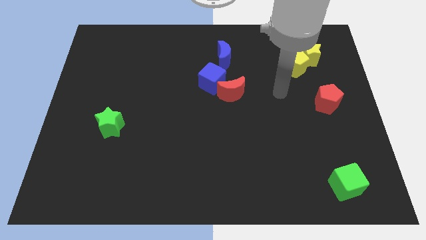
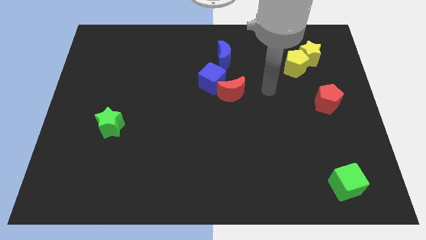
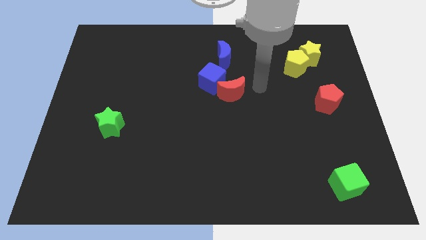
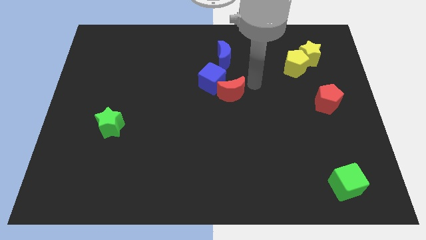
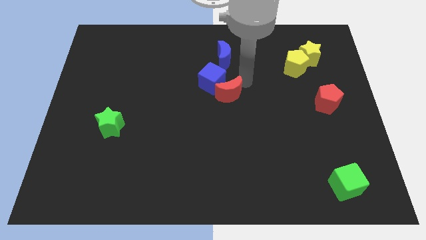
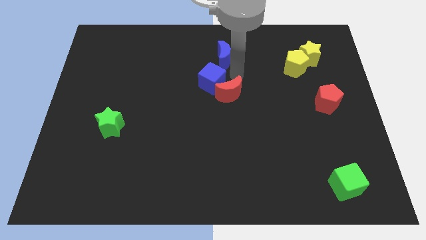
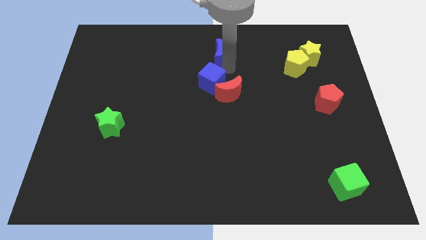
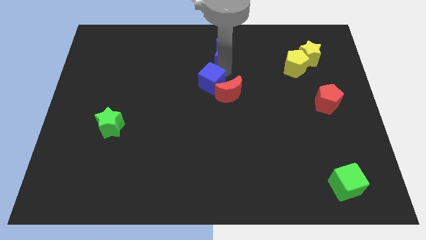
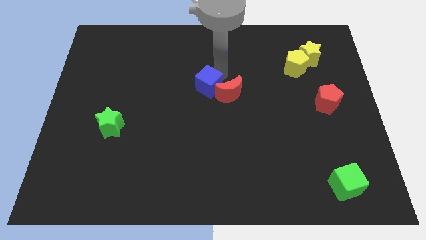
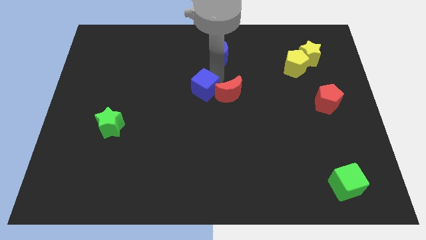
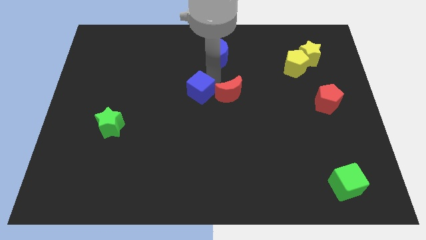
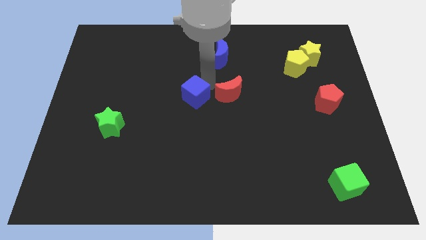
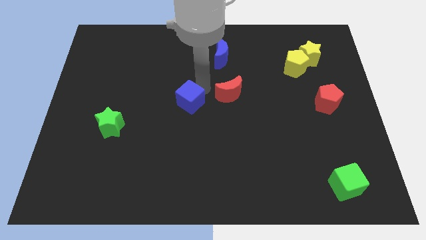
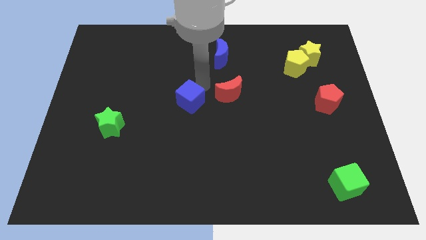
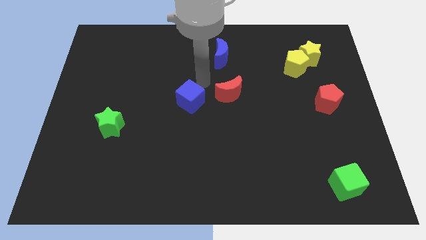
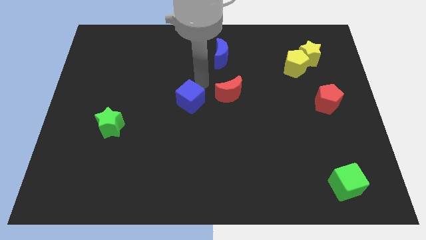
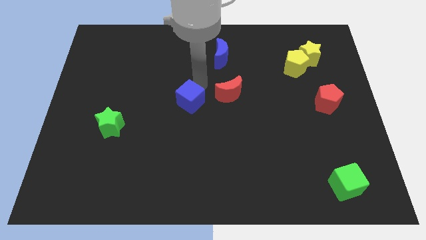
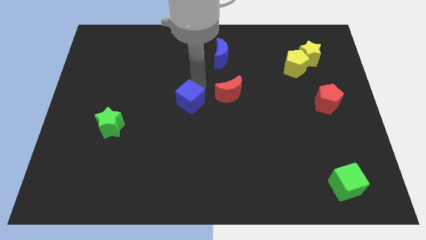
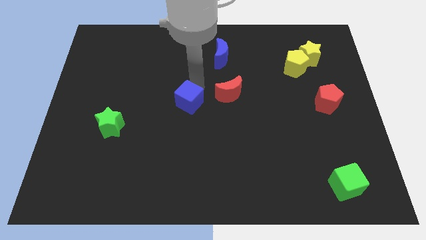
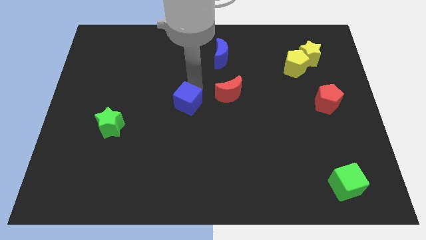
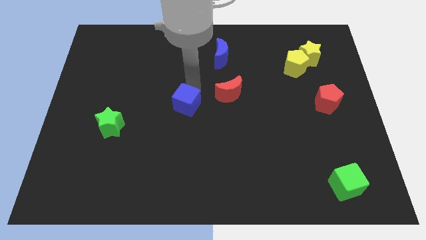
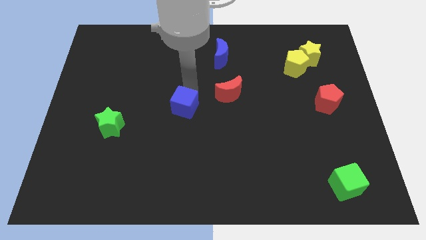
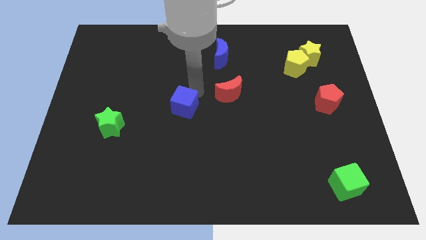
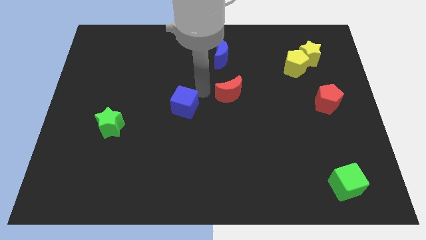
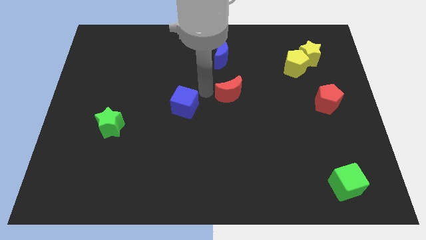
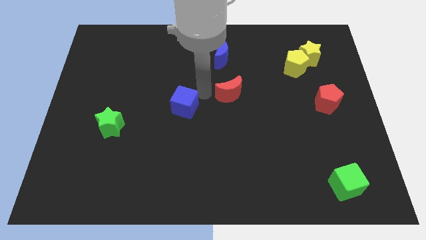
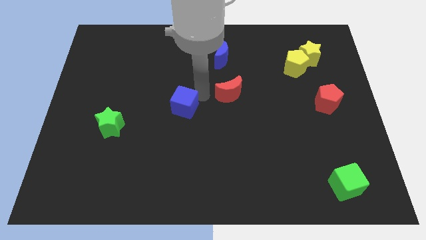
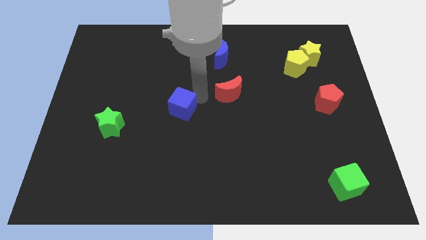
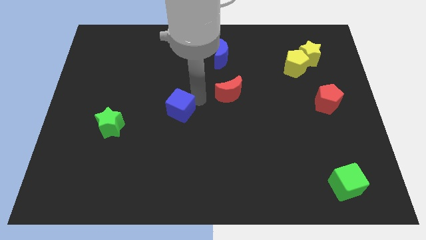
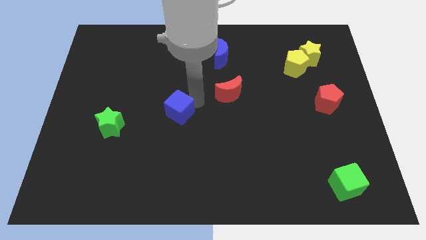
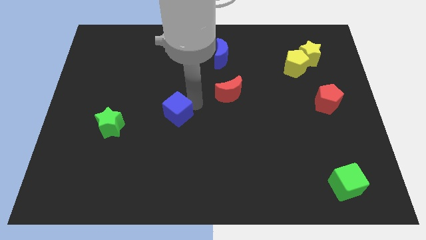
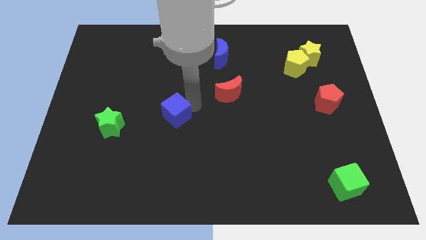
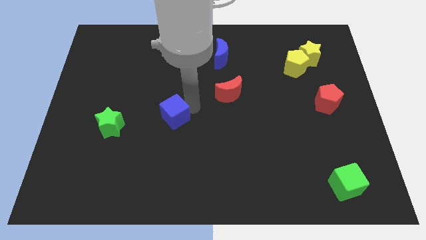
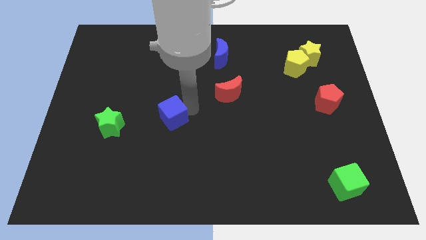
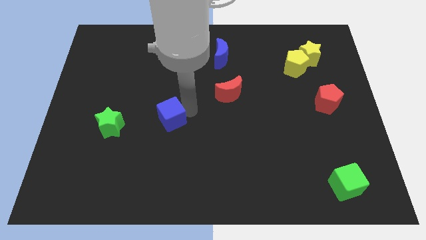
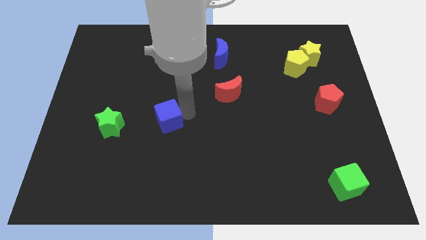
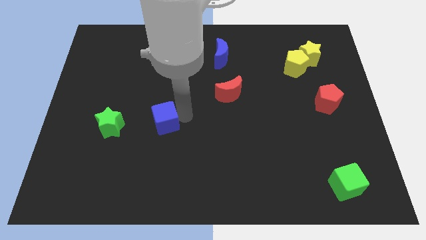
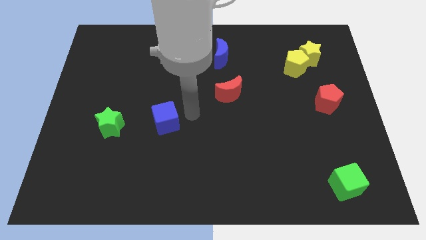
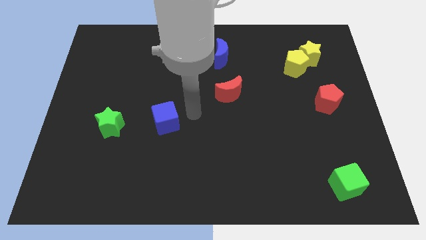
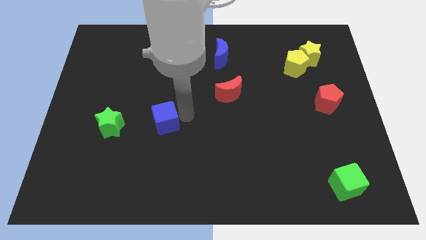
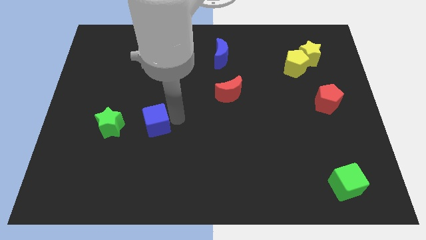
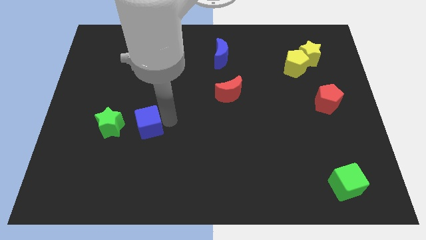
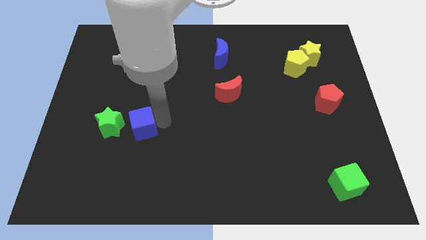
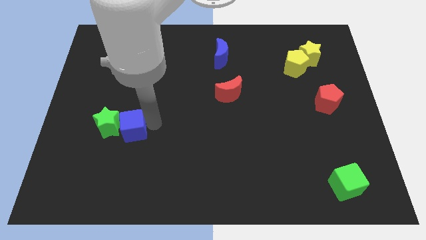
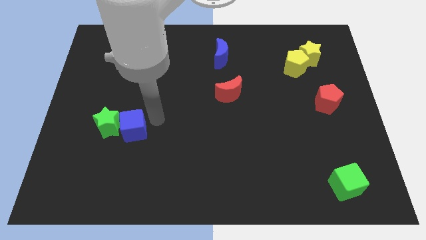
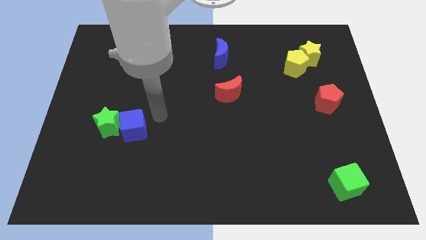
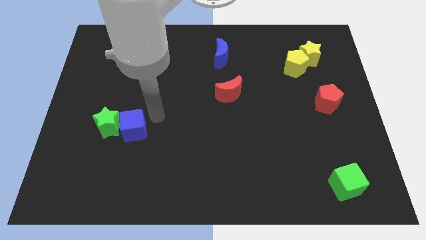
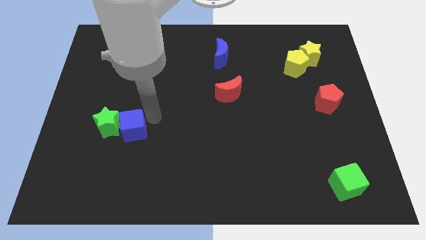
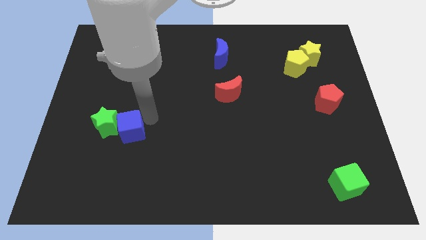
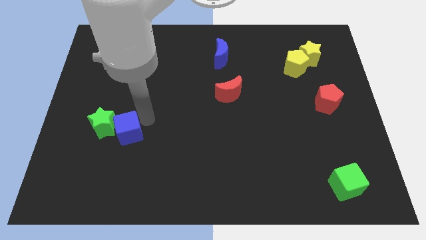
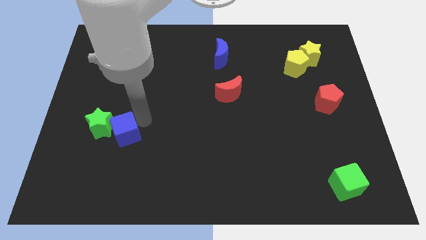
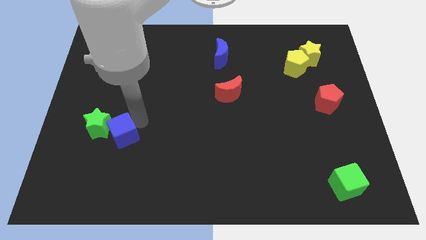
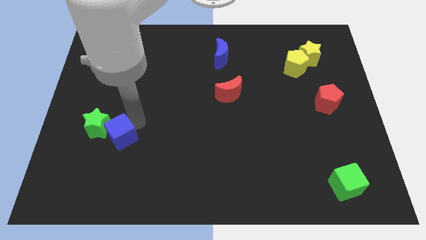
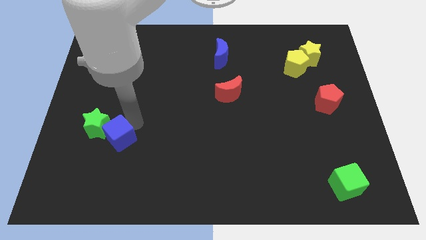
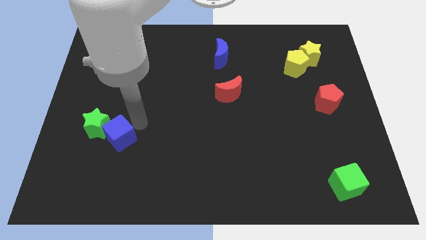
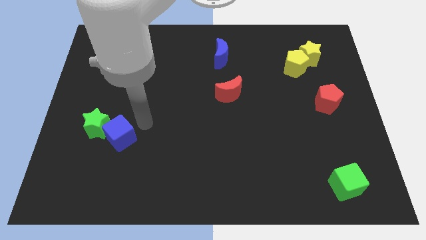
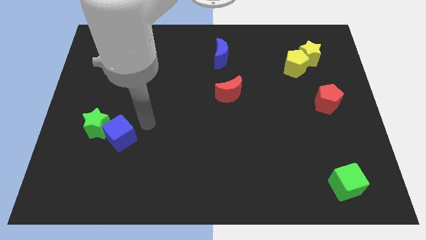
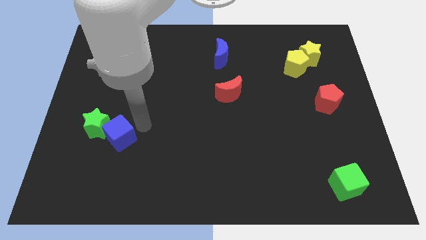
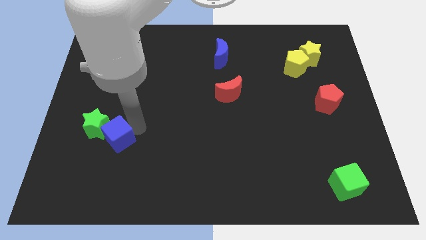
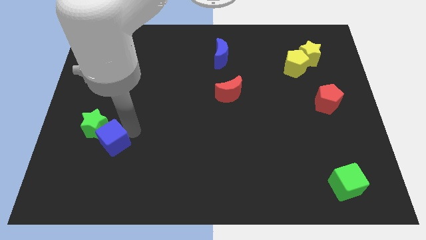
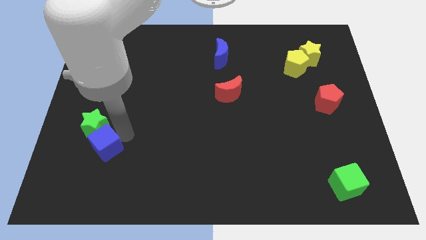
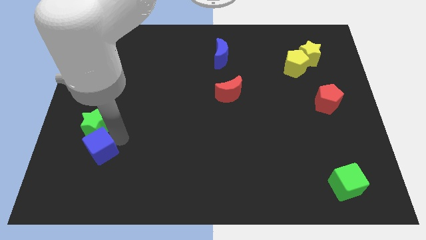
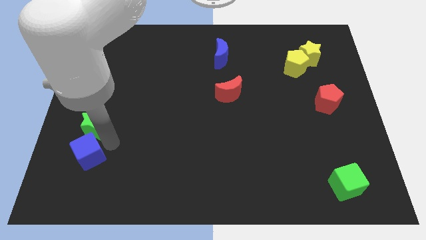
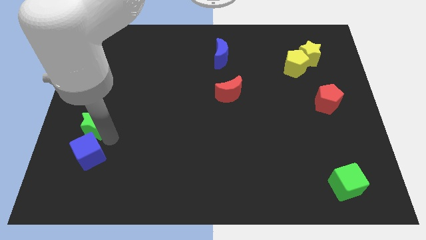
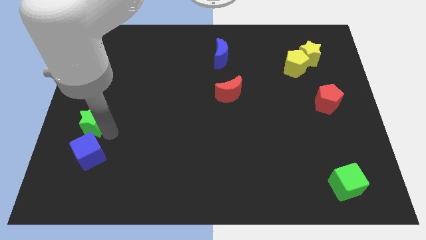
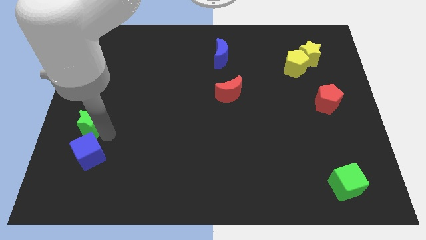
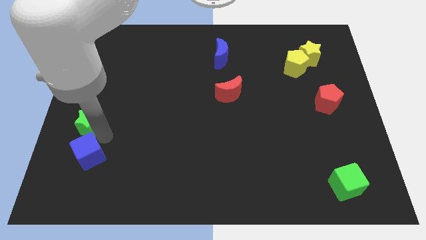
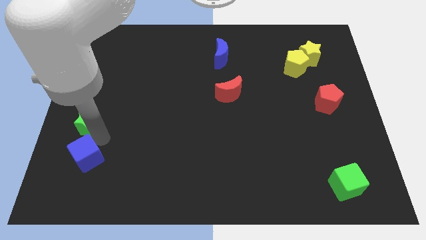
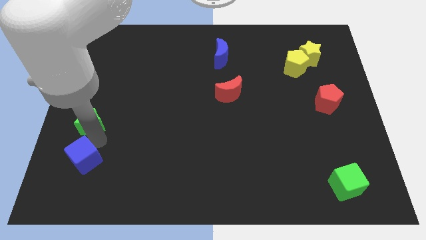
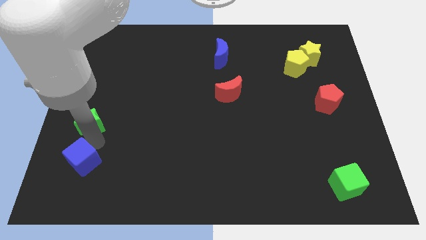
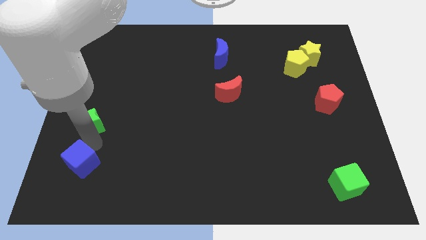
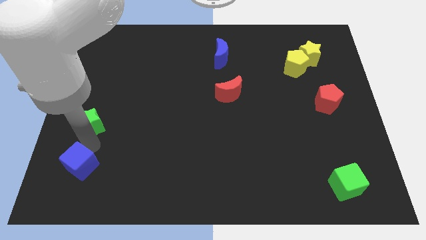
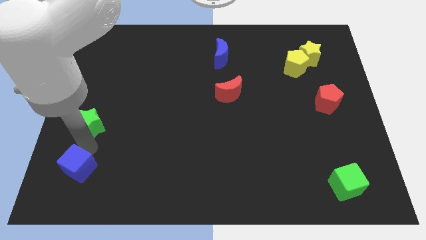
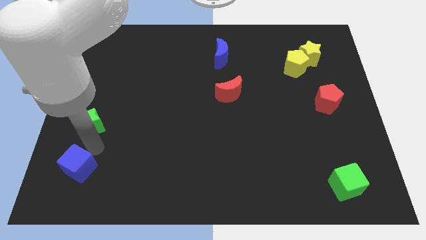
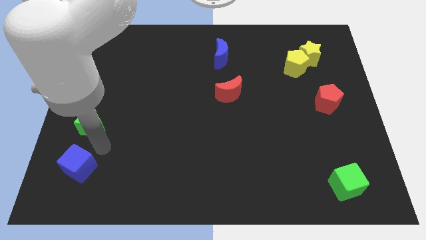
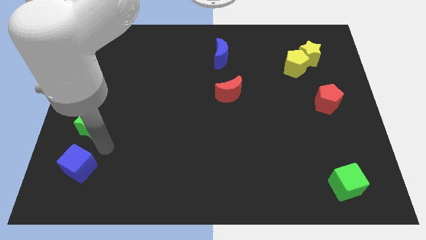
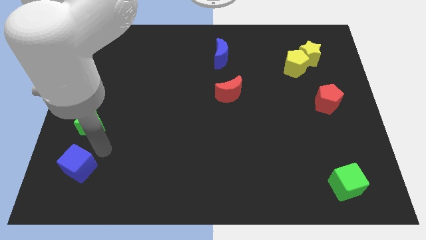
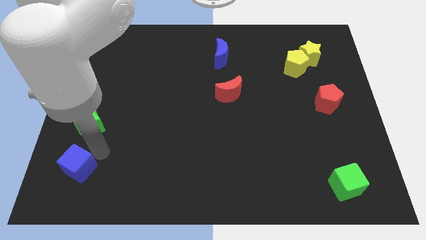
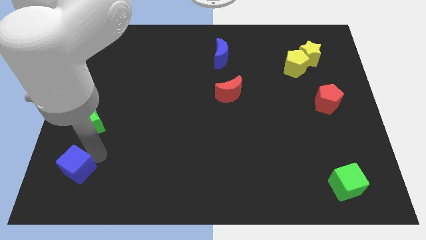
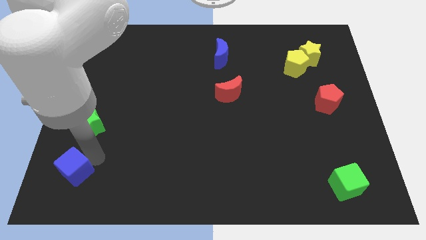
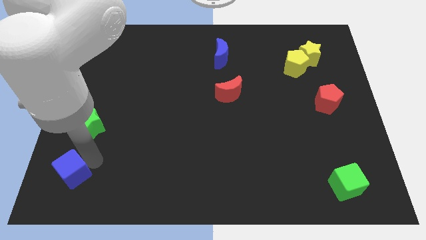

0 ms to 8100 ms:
put the blue cube to the bottom left corner
